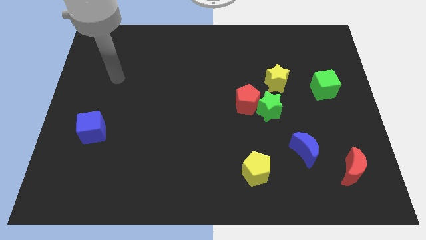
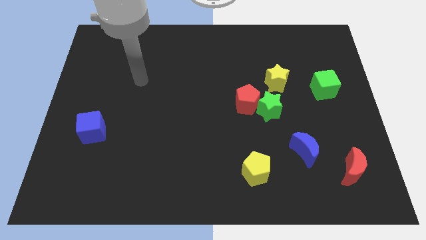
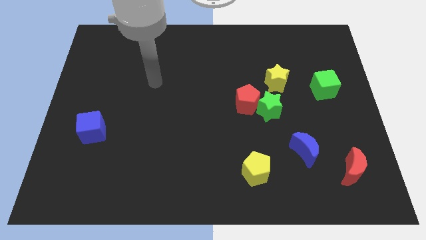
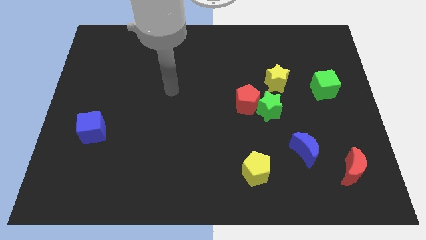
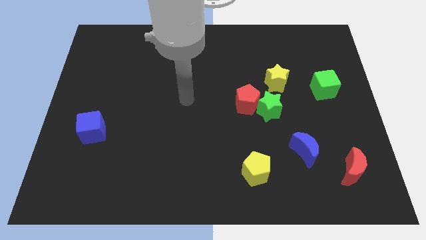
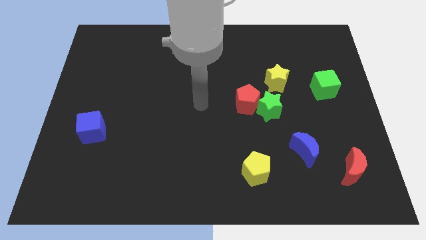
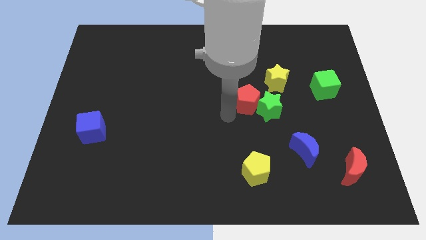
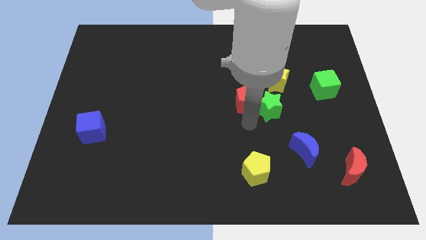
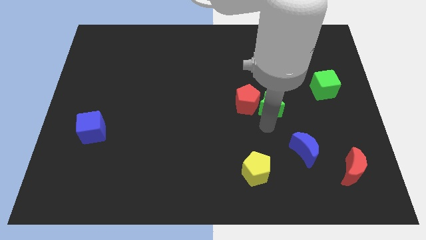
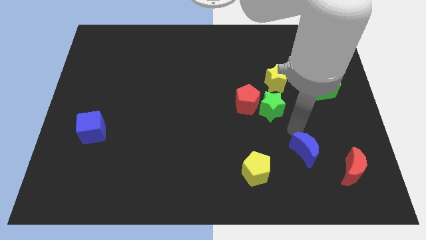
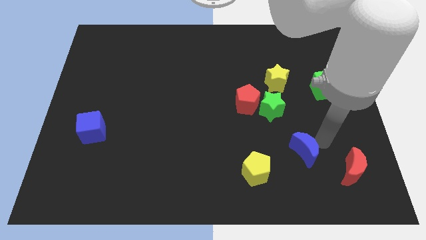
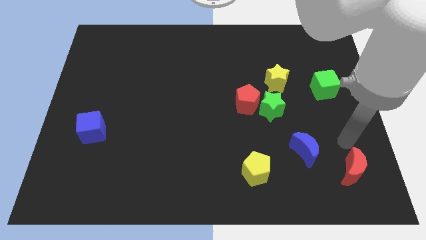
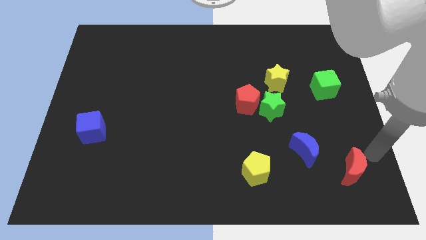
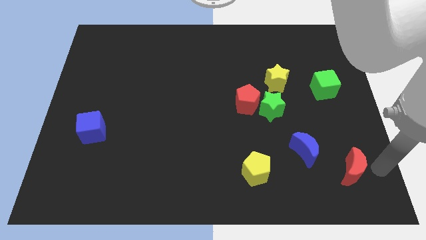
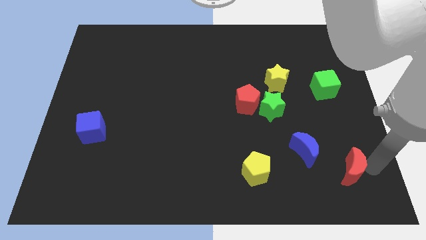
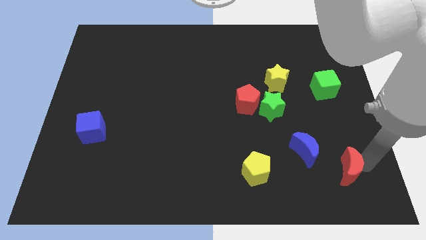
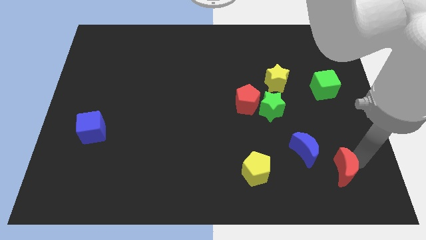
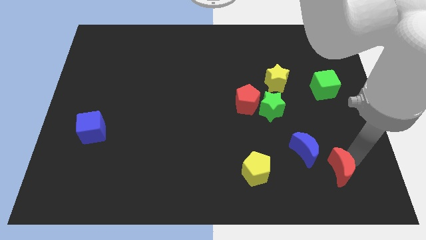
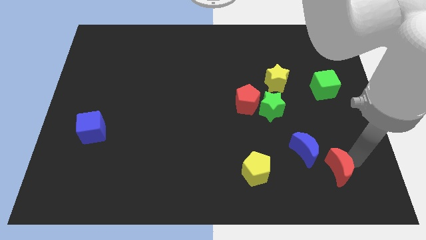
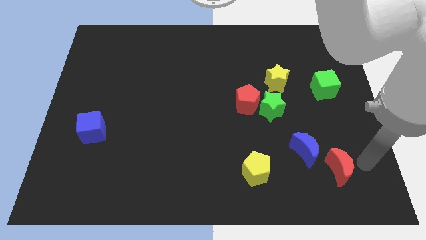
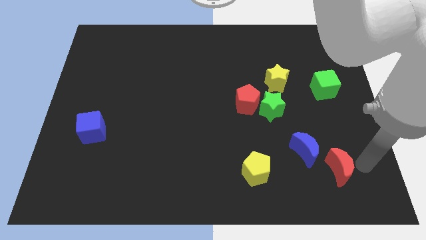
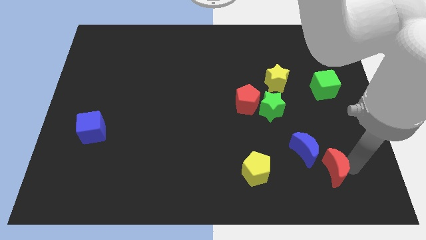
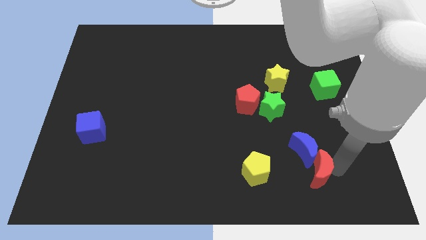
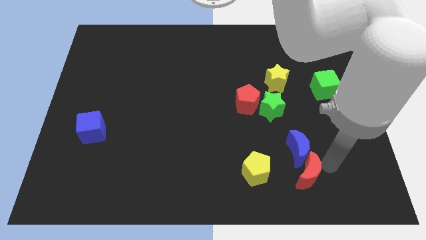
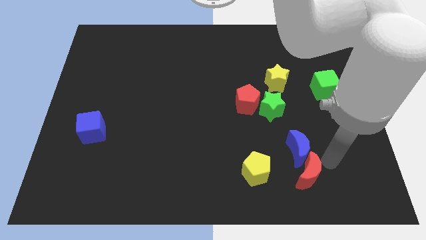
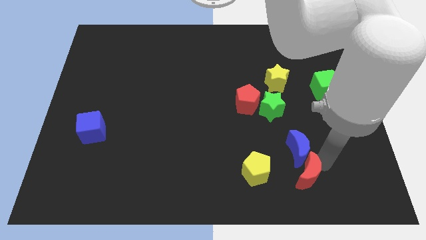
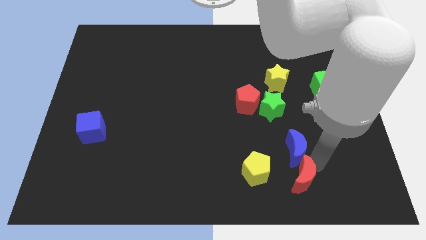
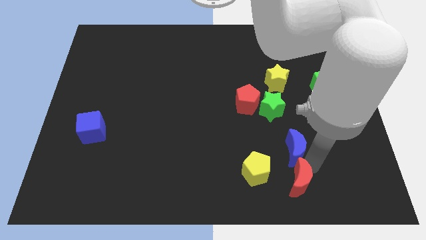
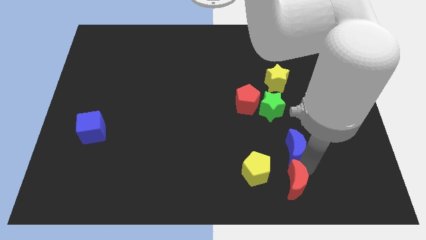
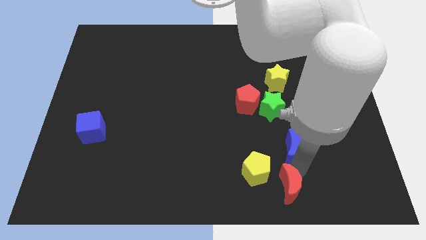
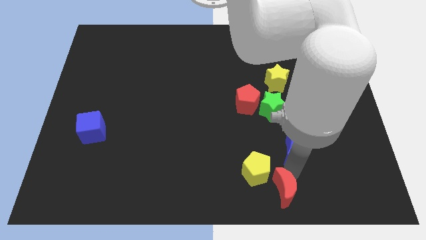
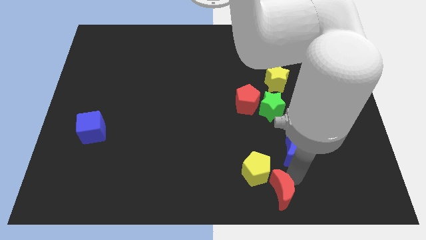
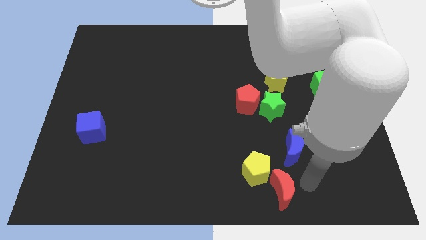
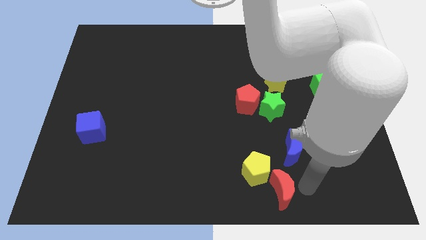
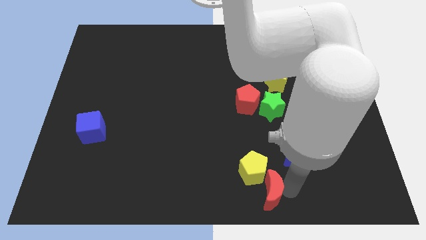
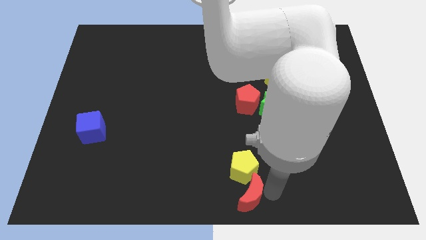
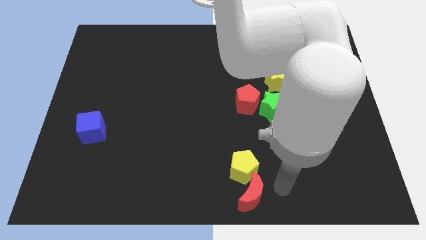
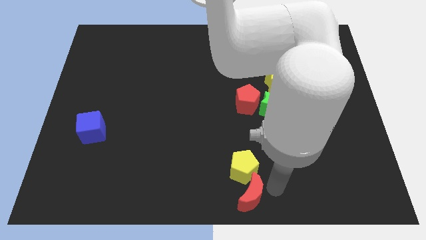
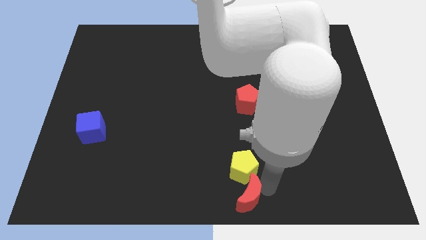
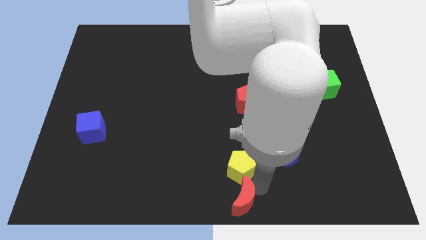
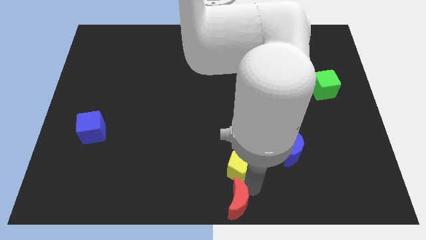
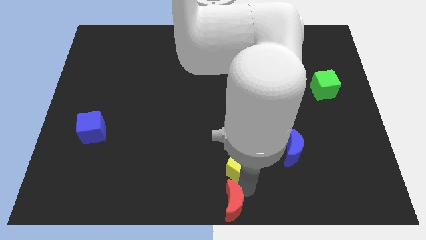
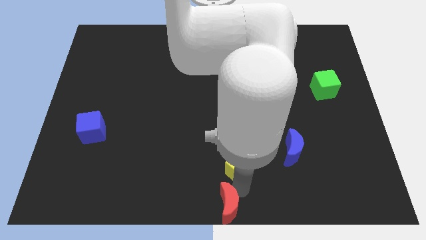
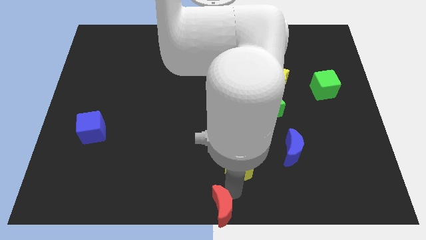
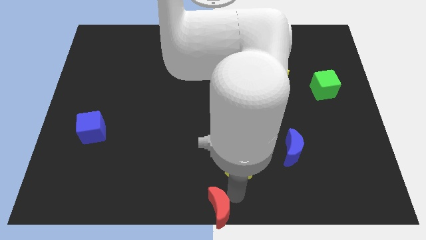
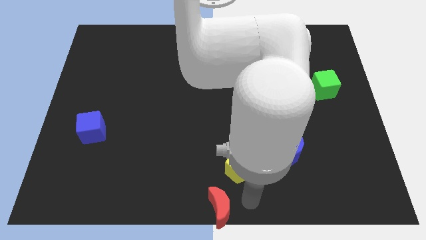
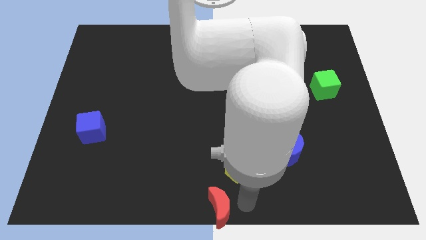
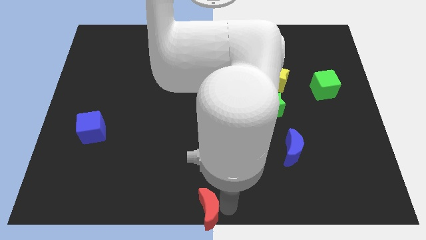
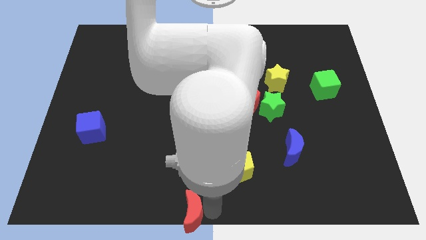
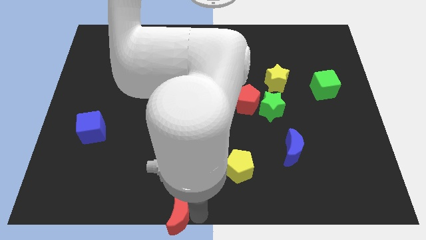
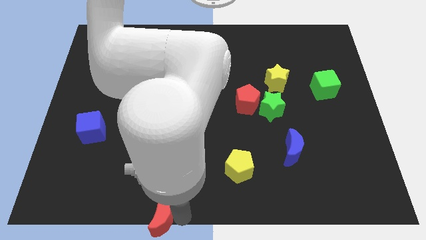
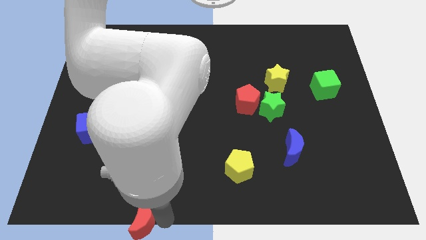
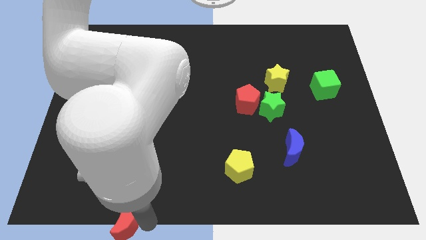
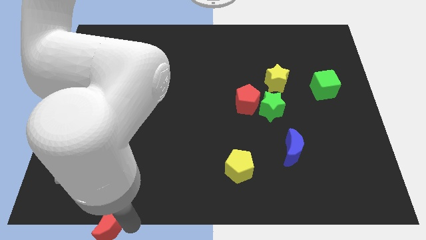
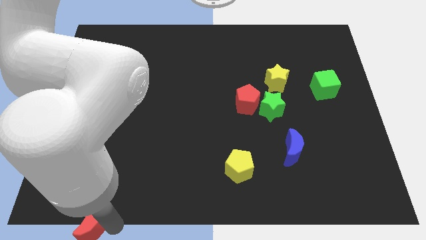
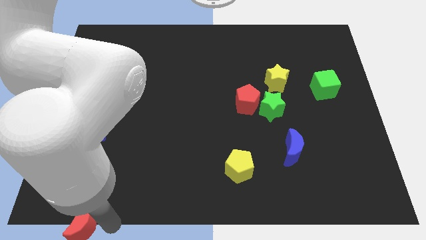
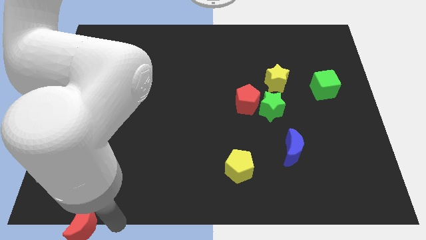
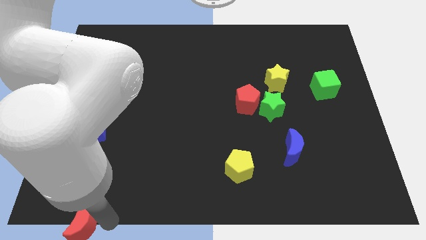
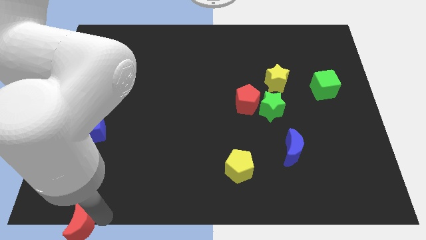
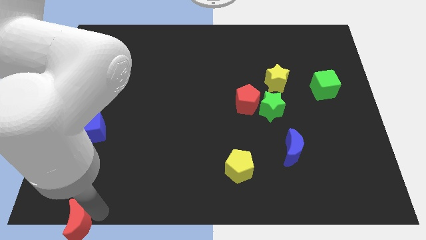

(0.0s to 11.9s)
put the red moon to the bottom left corner
